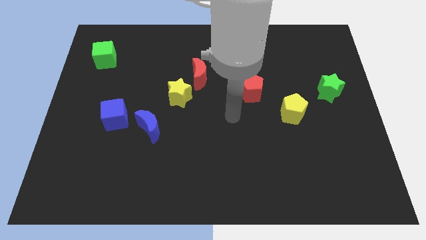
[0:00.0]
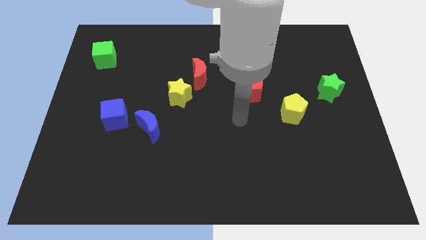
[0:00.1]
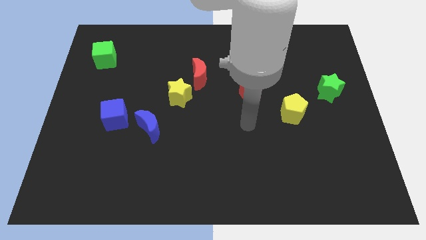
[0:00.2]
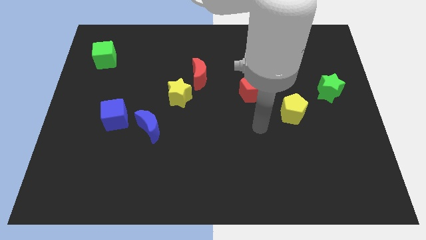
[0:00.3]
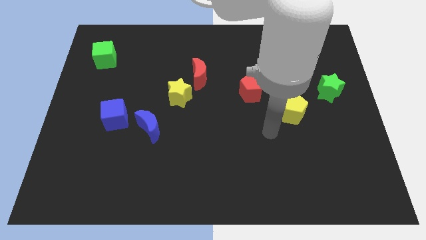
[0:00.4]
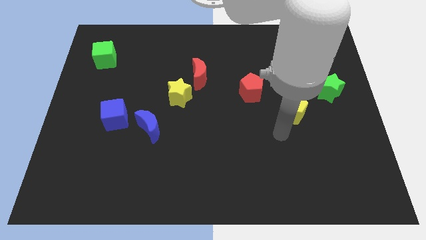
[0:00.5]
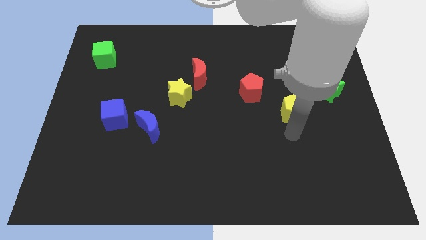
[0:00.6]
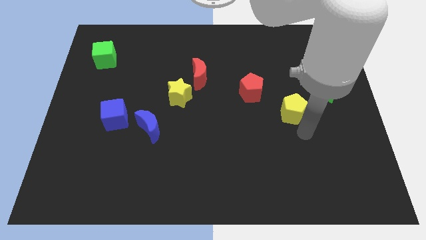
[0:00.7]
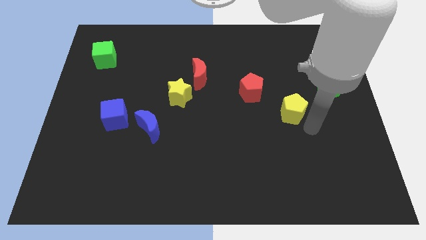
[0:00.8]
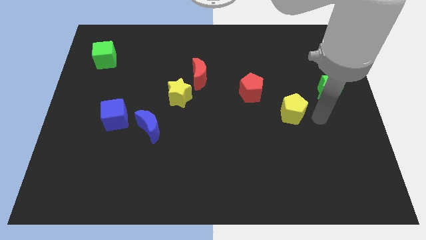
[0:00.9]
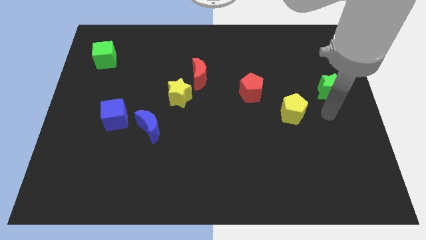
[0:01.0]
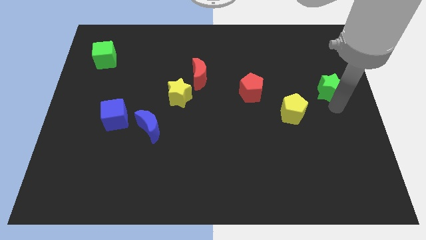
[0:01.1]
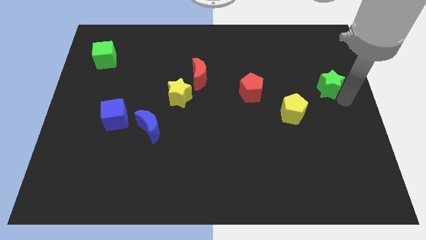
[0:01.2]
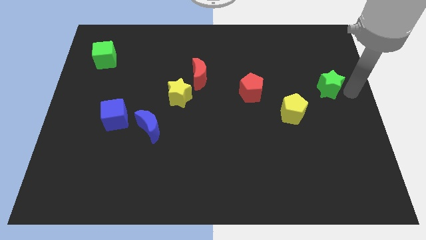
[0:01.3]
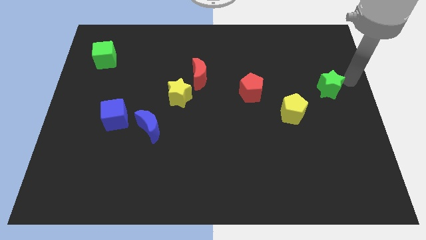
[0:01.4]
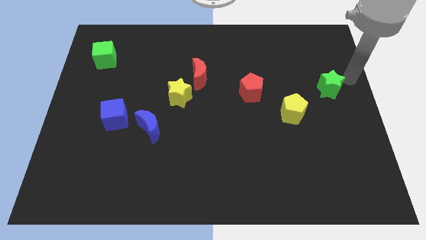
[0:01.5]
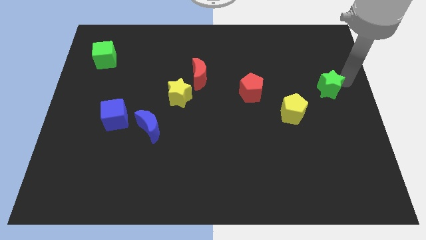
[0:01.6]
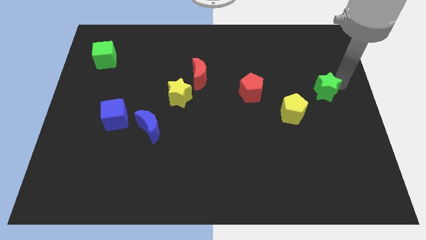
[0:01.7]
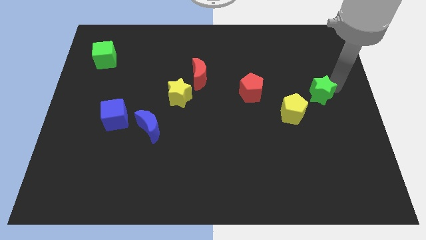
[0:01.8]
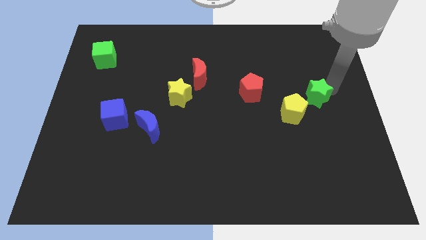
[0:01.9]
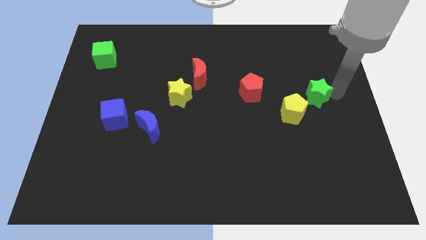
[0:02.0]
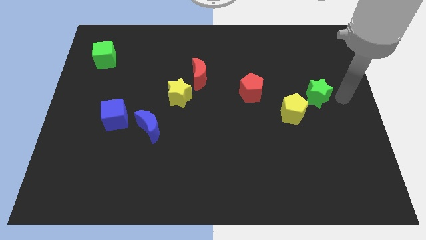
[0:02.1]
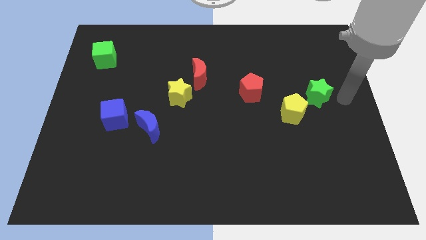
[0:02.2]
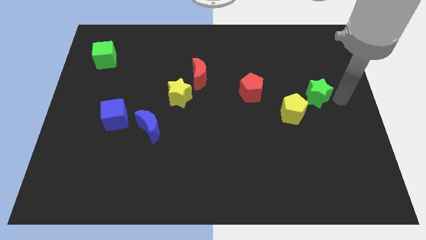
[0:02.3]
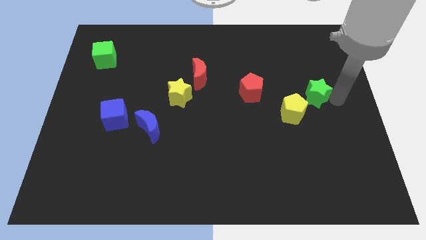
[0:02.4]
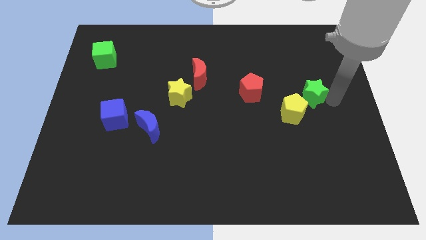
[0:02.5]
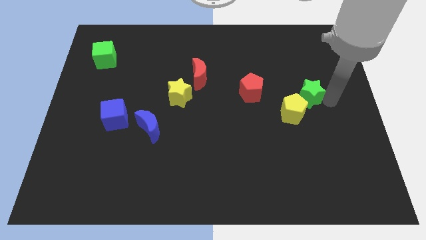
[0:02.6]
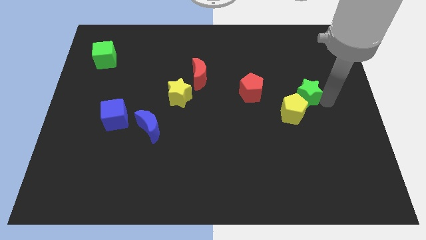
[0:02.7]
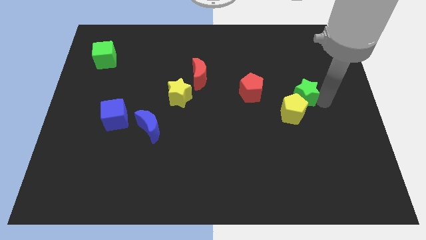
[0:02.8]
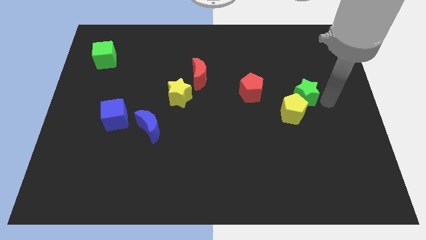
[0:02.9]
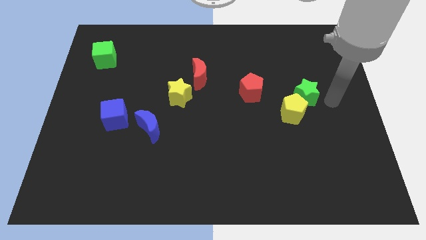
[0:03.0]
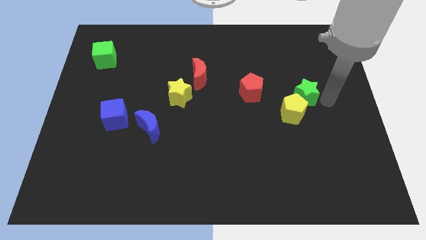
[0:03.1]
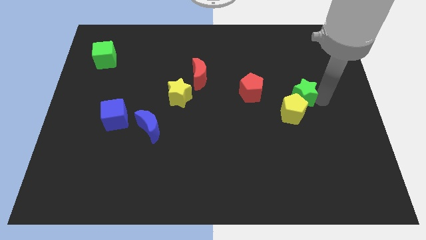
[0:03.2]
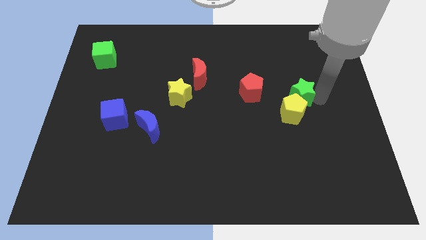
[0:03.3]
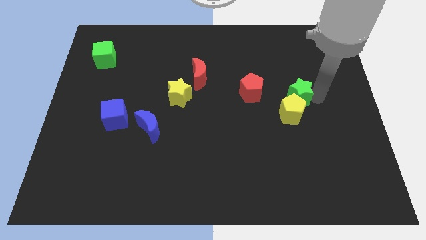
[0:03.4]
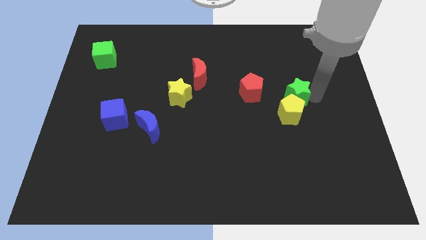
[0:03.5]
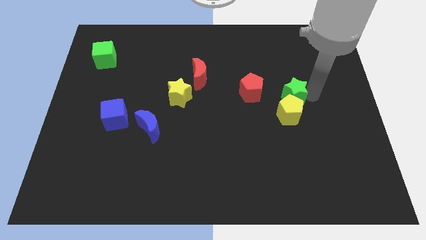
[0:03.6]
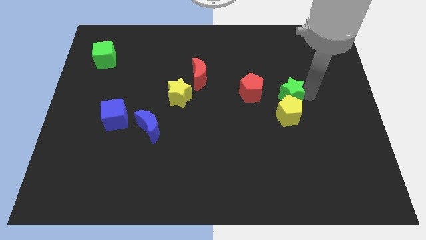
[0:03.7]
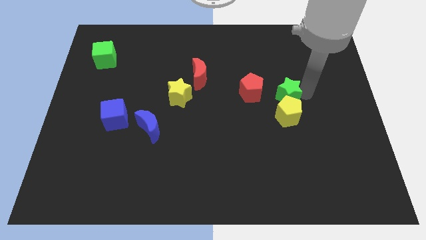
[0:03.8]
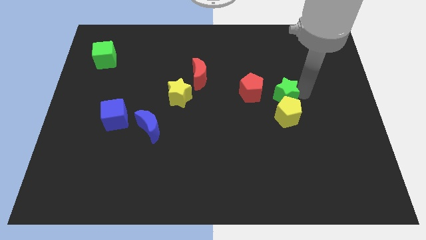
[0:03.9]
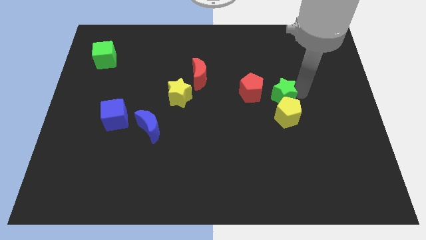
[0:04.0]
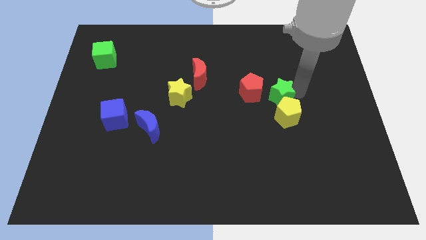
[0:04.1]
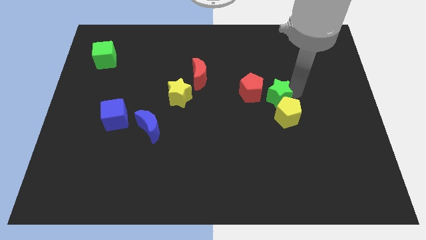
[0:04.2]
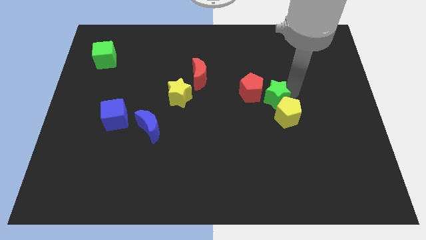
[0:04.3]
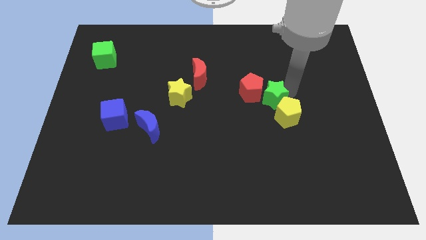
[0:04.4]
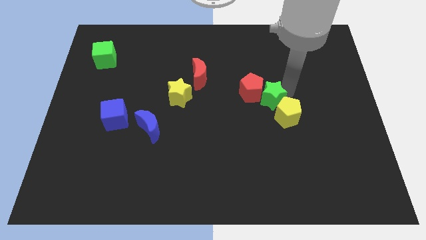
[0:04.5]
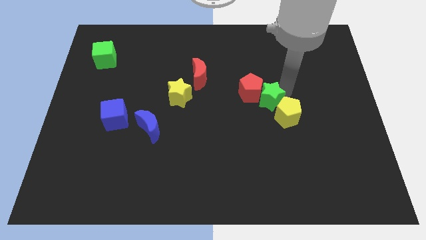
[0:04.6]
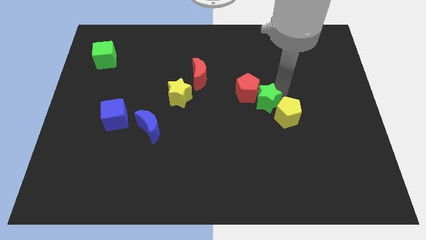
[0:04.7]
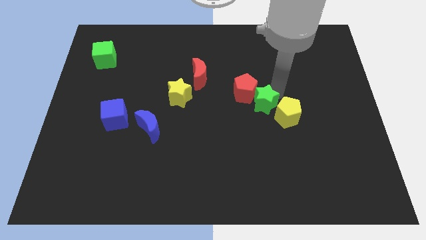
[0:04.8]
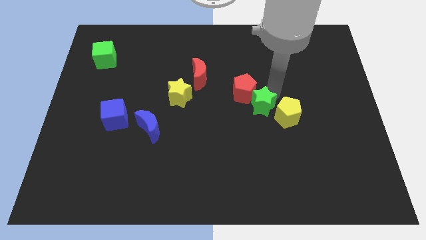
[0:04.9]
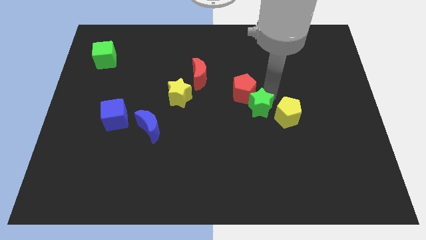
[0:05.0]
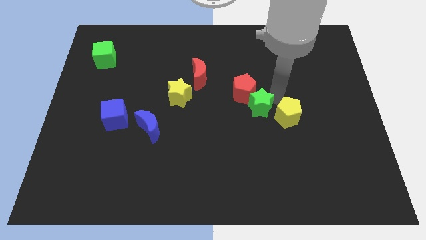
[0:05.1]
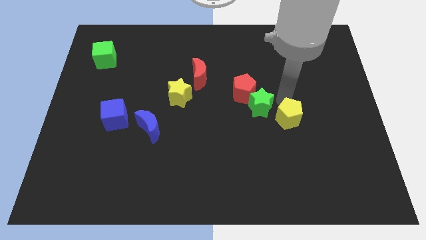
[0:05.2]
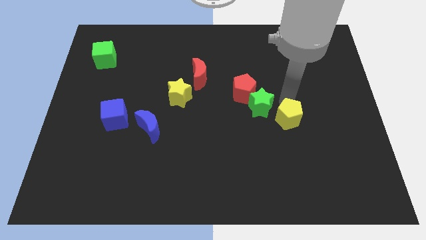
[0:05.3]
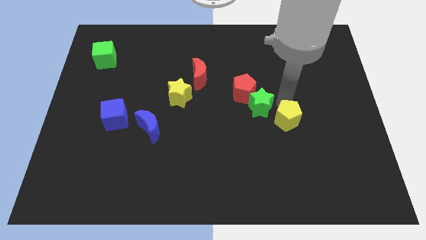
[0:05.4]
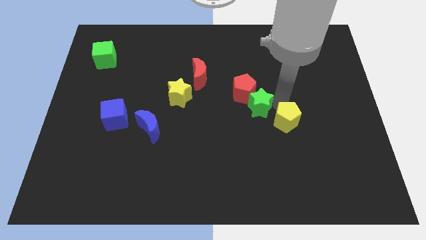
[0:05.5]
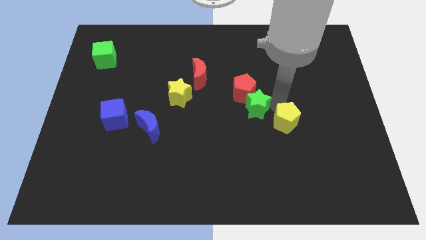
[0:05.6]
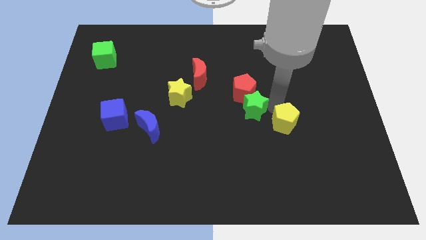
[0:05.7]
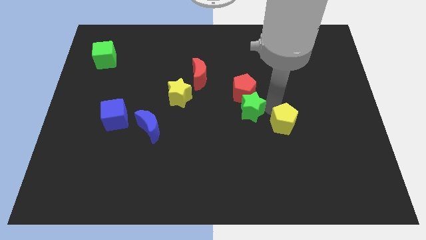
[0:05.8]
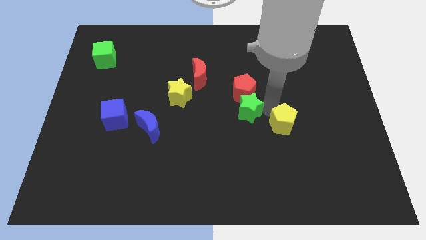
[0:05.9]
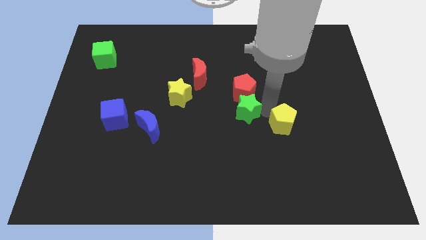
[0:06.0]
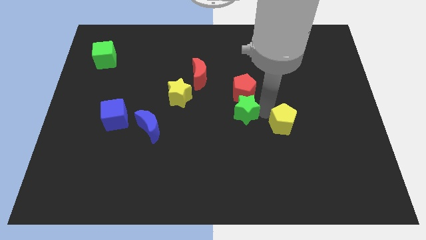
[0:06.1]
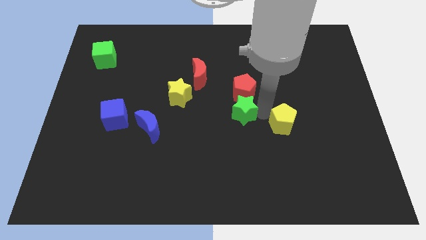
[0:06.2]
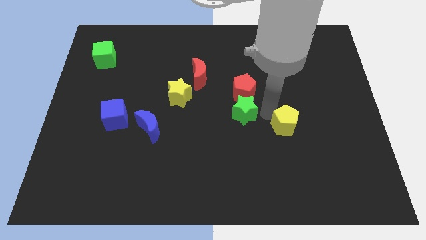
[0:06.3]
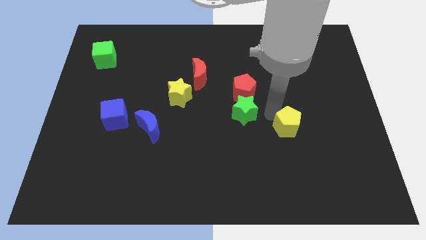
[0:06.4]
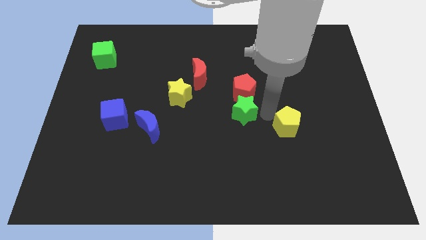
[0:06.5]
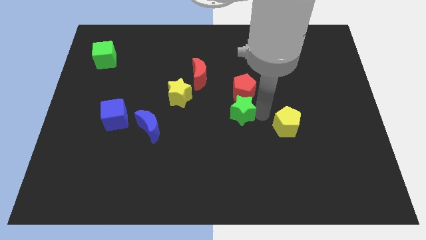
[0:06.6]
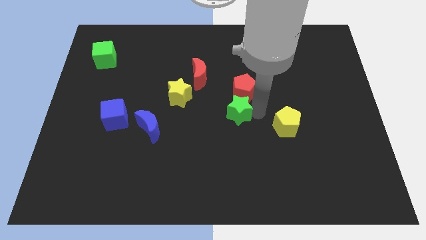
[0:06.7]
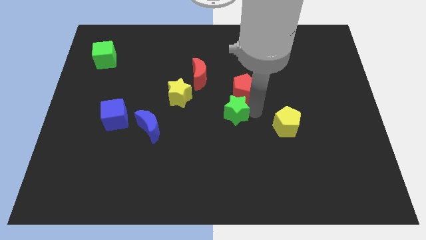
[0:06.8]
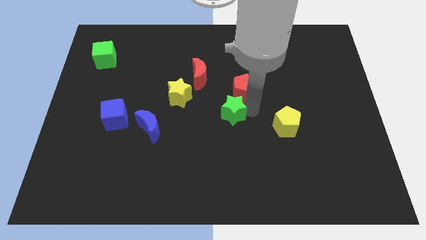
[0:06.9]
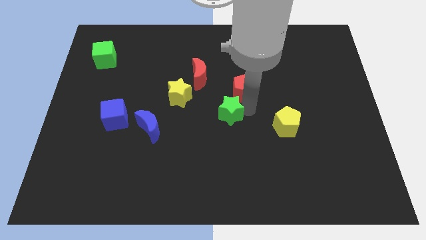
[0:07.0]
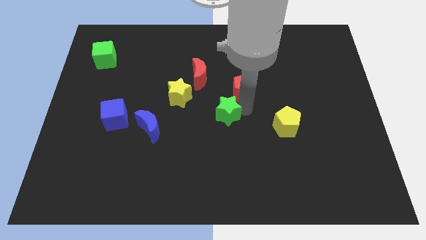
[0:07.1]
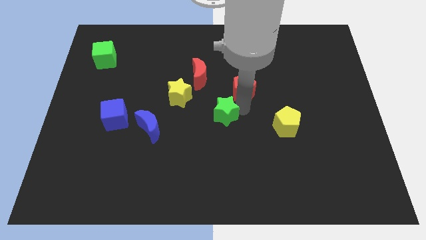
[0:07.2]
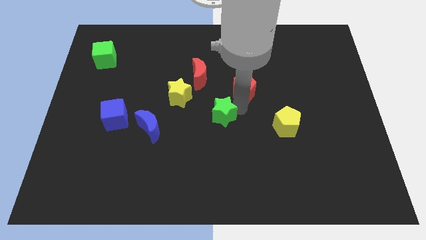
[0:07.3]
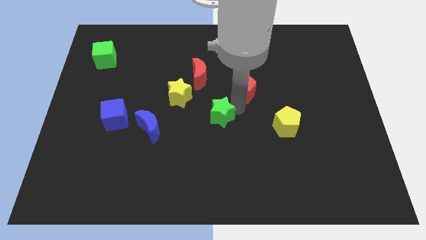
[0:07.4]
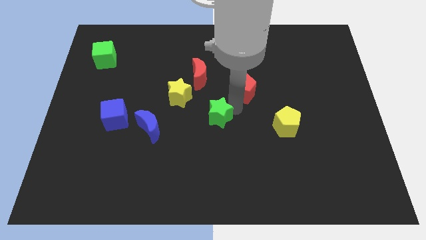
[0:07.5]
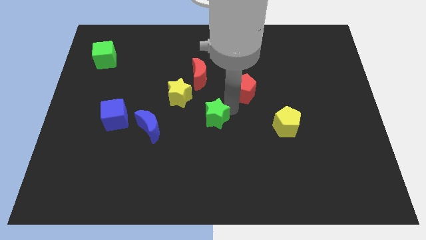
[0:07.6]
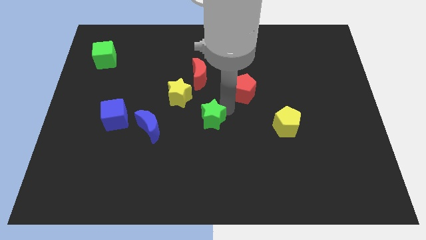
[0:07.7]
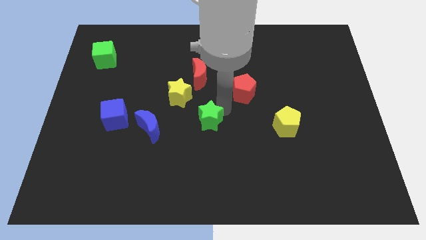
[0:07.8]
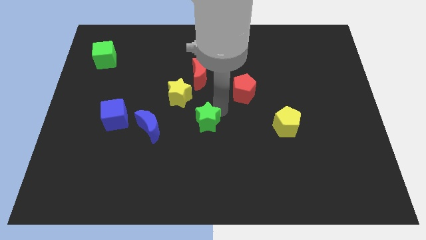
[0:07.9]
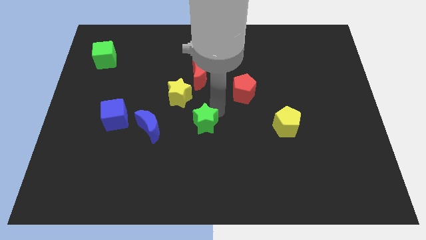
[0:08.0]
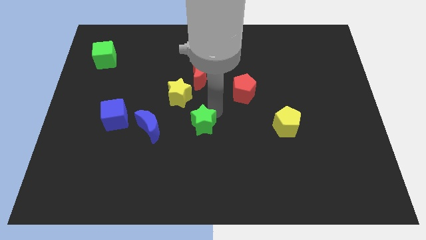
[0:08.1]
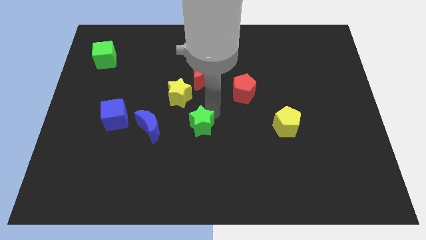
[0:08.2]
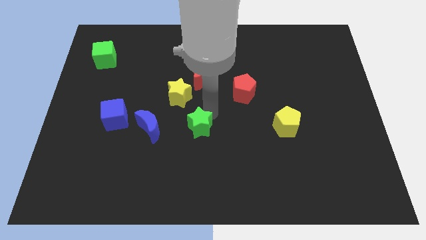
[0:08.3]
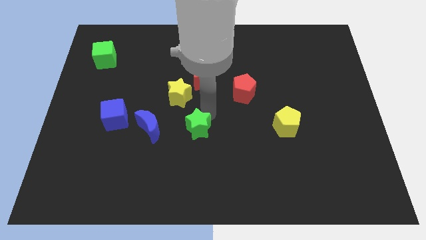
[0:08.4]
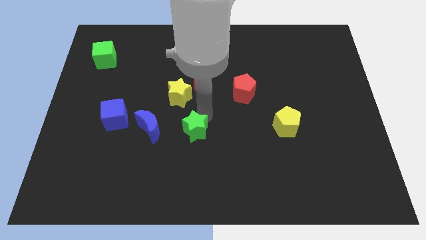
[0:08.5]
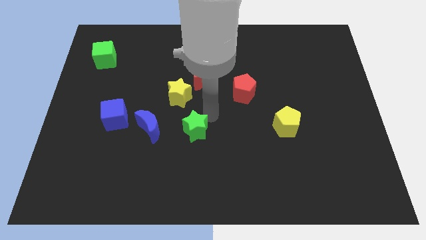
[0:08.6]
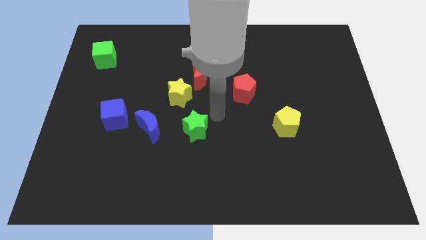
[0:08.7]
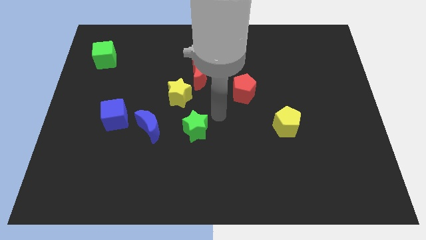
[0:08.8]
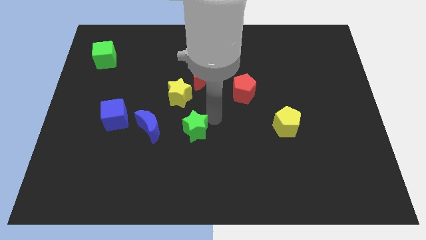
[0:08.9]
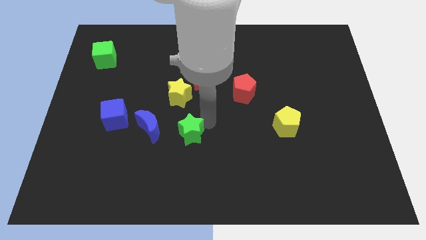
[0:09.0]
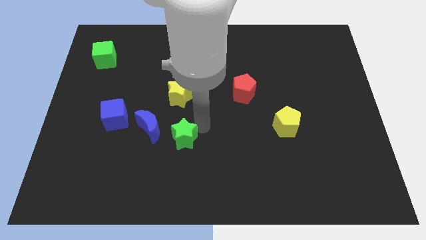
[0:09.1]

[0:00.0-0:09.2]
move the green star to the bottom right side of the blue moon
